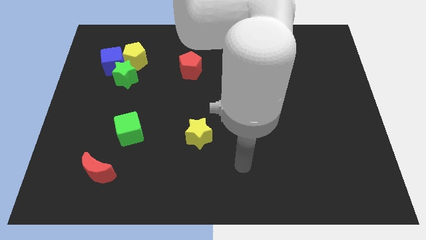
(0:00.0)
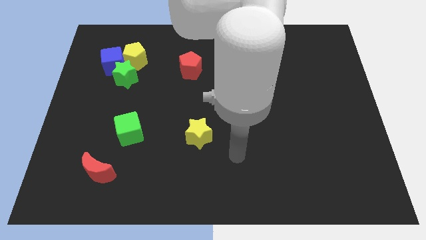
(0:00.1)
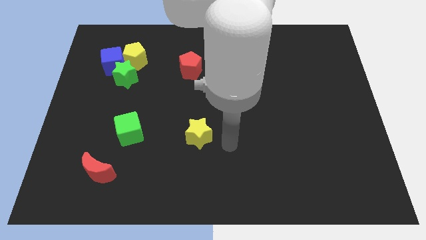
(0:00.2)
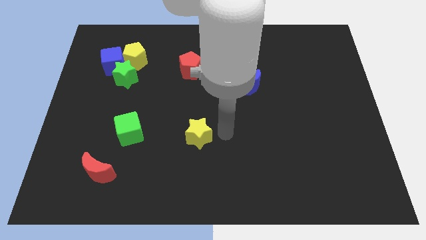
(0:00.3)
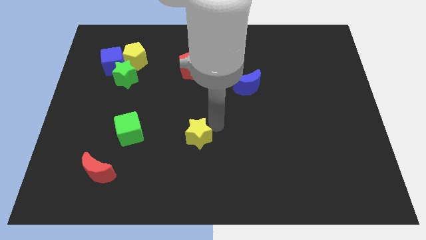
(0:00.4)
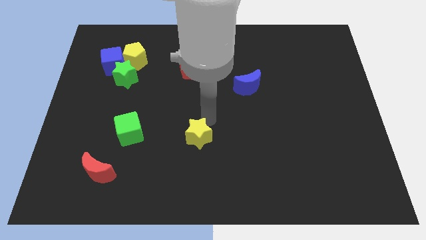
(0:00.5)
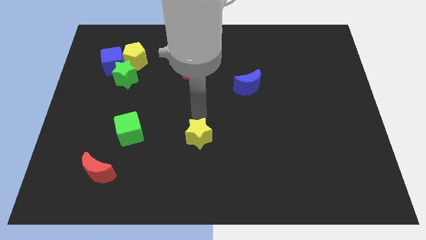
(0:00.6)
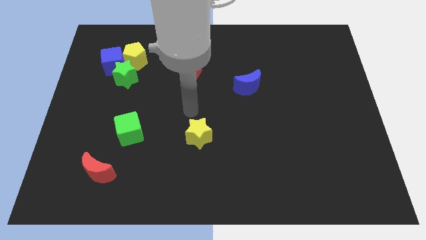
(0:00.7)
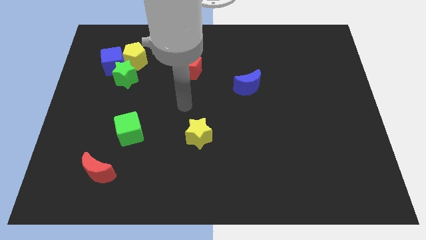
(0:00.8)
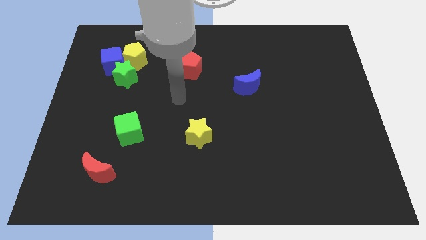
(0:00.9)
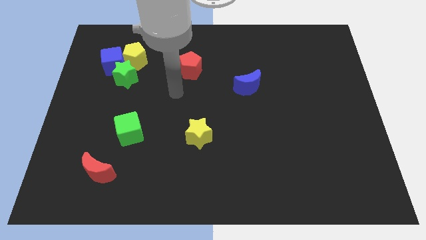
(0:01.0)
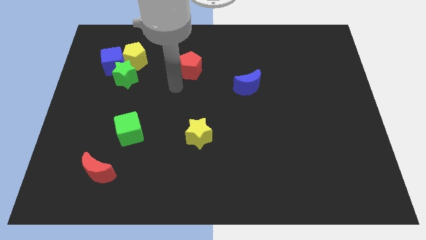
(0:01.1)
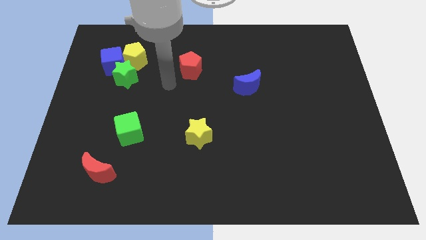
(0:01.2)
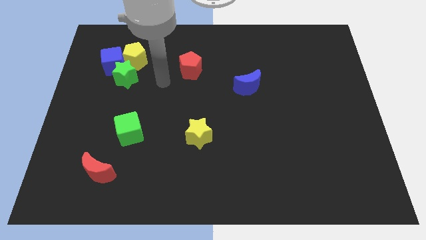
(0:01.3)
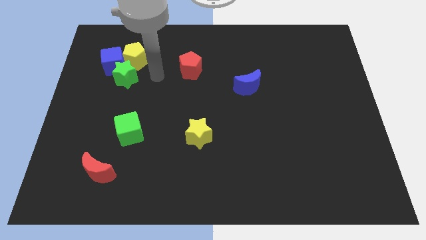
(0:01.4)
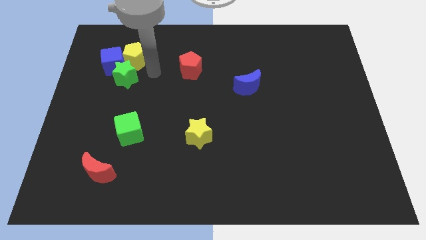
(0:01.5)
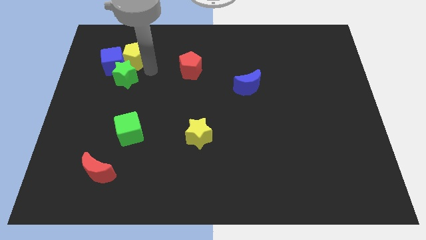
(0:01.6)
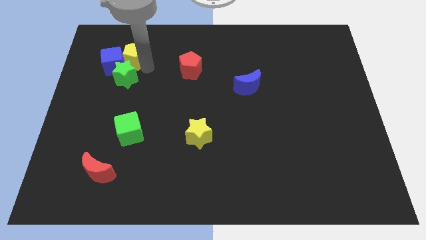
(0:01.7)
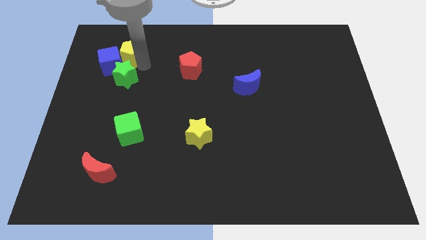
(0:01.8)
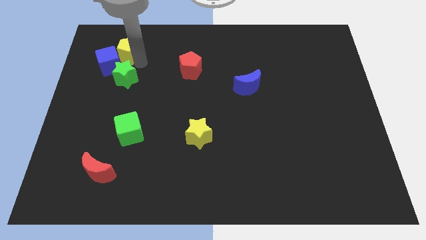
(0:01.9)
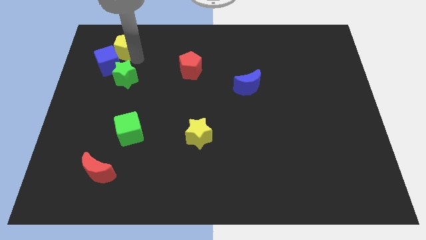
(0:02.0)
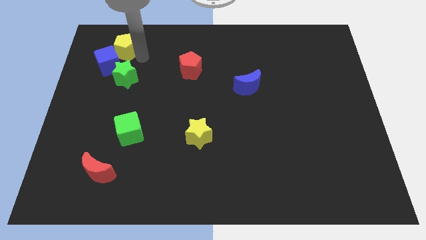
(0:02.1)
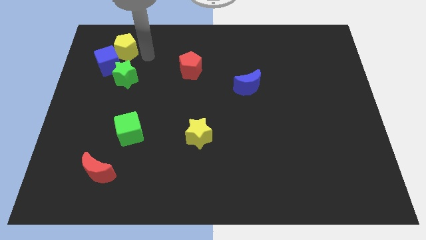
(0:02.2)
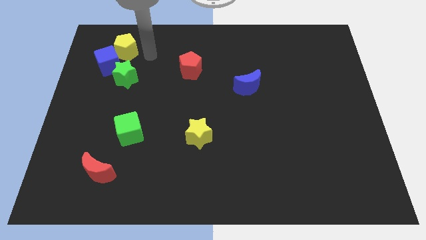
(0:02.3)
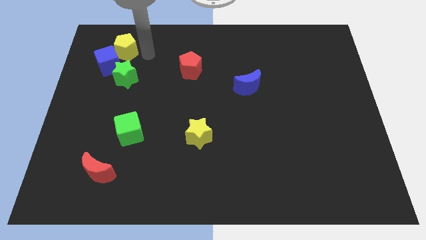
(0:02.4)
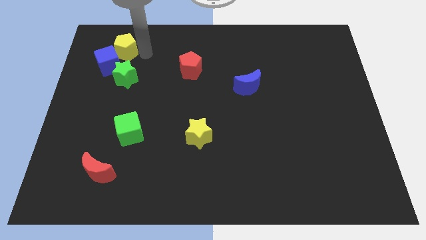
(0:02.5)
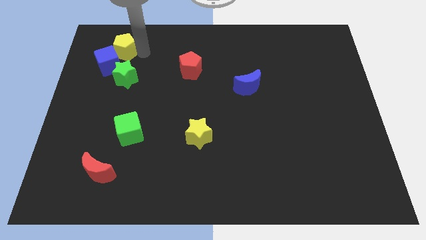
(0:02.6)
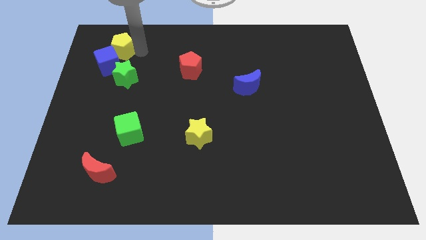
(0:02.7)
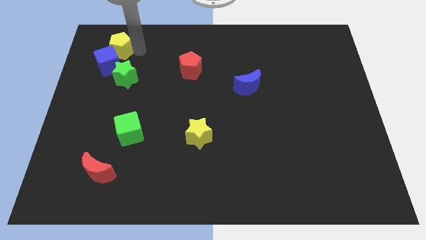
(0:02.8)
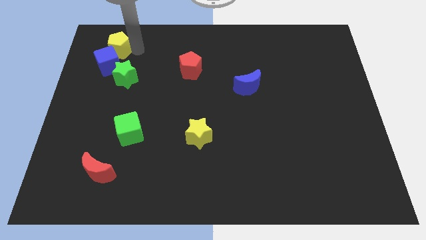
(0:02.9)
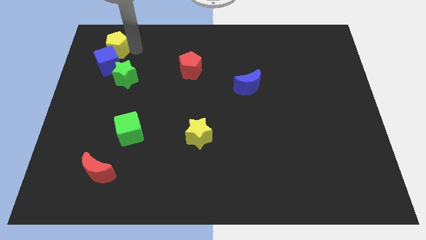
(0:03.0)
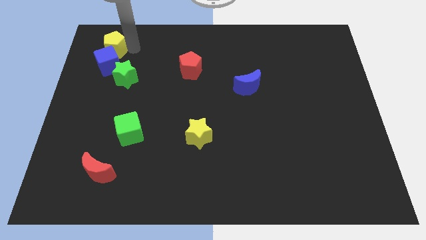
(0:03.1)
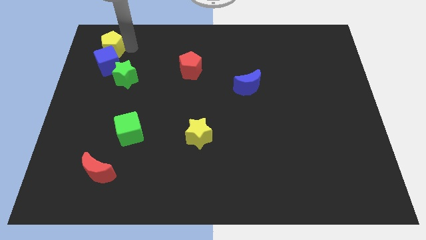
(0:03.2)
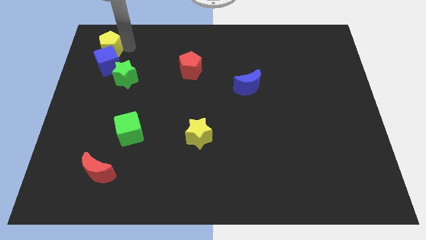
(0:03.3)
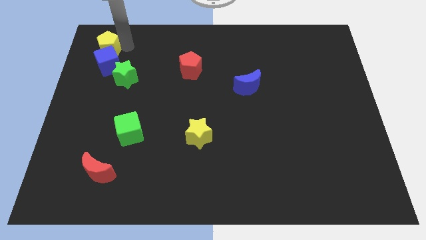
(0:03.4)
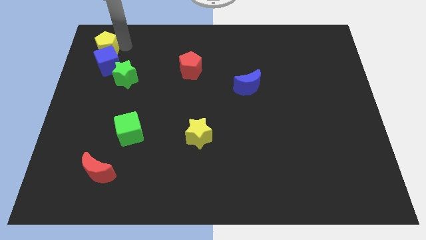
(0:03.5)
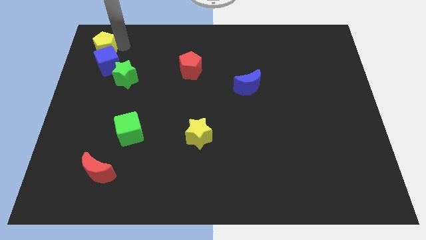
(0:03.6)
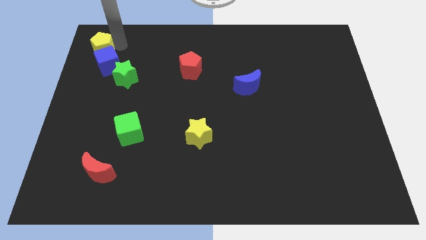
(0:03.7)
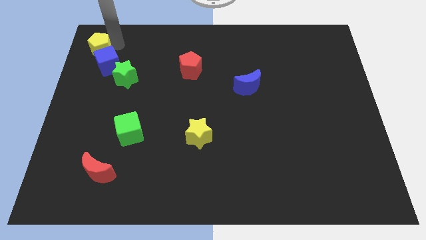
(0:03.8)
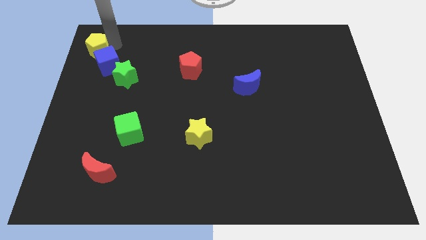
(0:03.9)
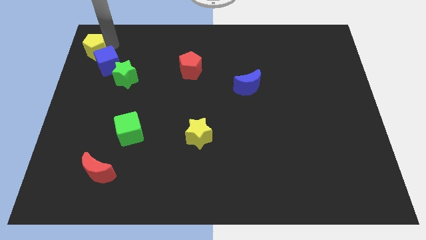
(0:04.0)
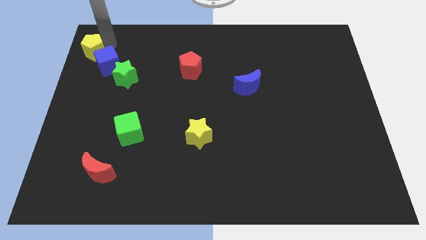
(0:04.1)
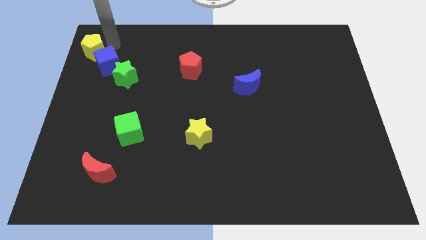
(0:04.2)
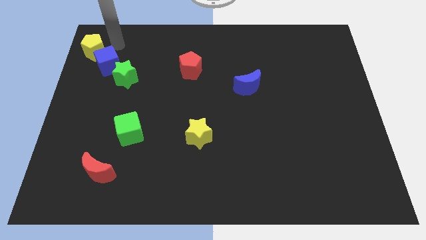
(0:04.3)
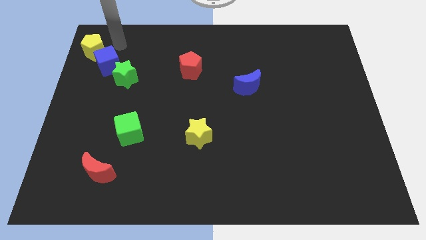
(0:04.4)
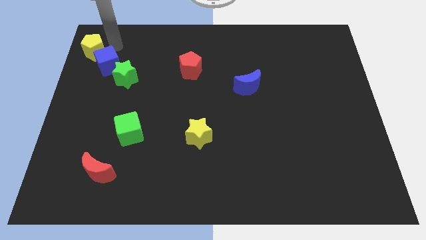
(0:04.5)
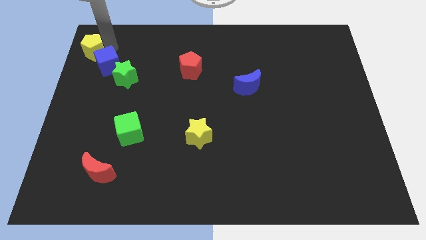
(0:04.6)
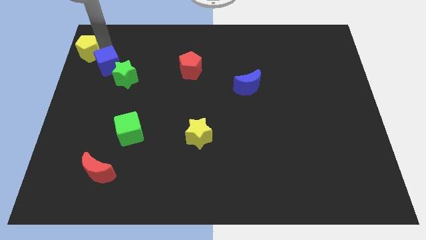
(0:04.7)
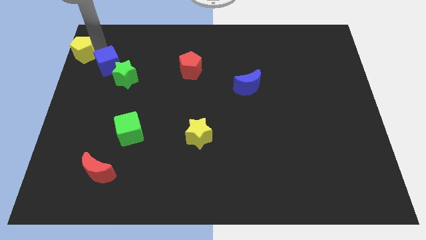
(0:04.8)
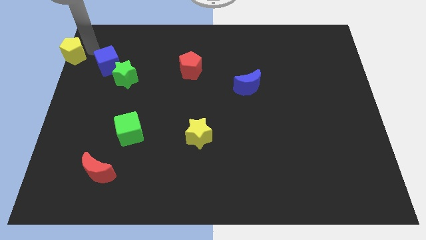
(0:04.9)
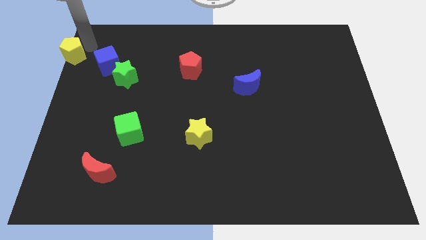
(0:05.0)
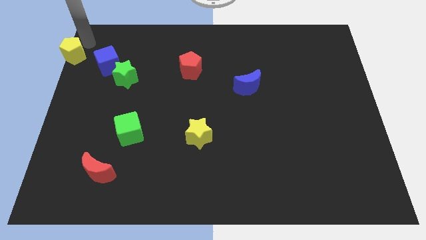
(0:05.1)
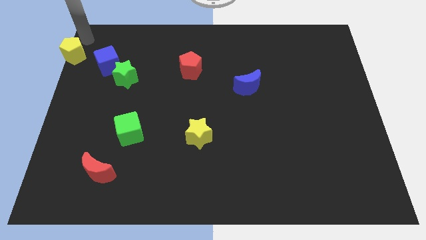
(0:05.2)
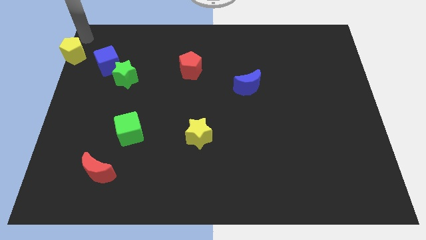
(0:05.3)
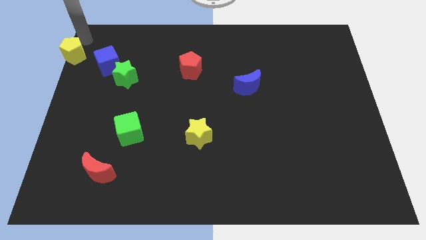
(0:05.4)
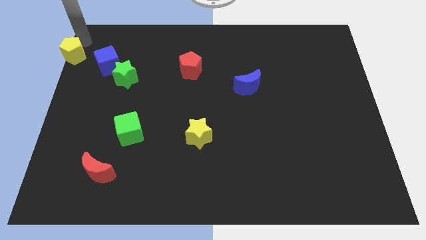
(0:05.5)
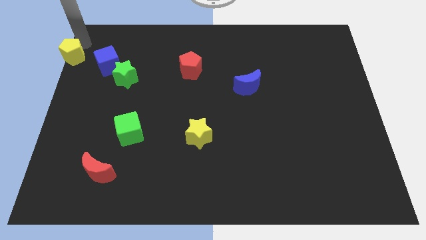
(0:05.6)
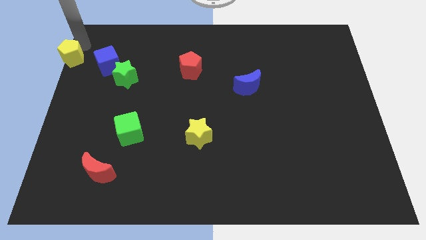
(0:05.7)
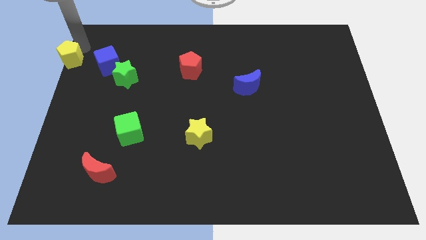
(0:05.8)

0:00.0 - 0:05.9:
move the yellow pentagon to the center left
